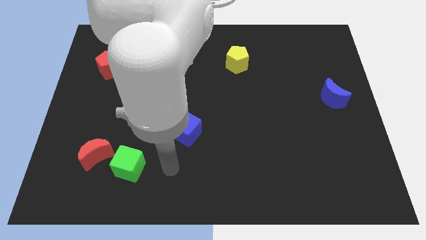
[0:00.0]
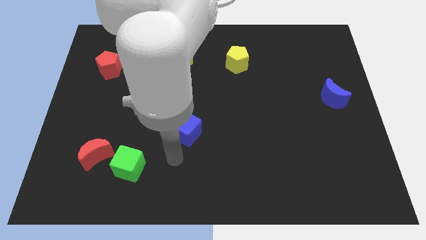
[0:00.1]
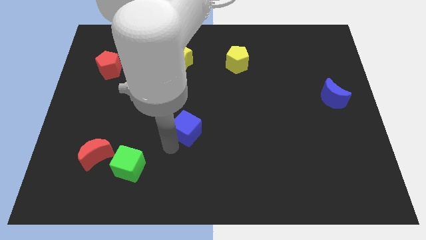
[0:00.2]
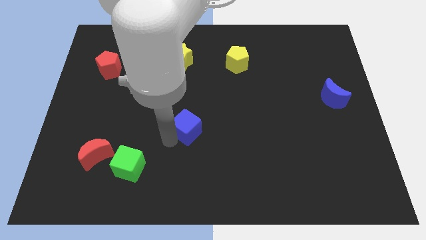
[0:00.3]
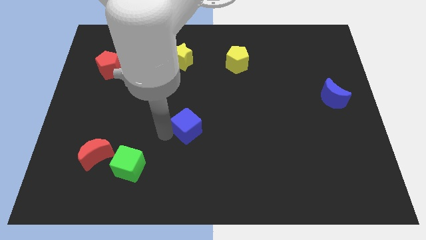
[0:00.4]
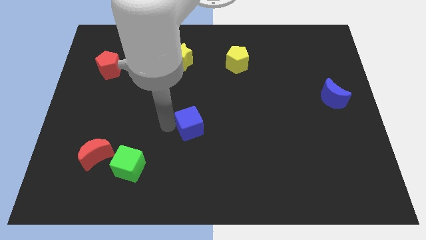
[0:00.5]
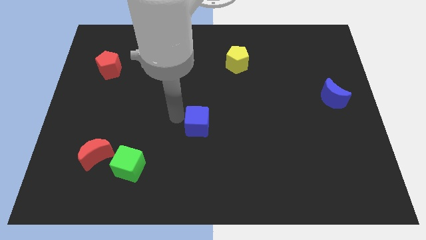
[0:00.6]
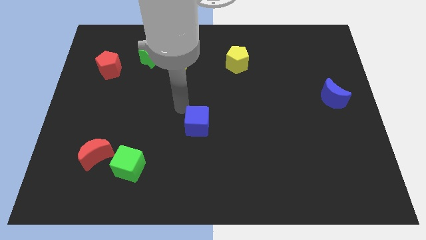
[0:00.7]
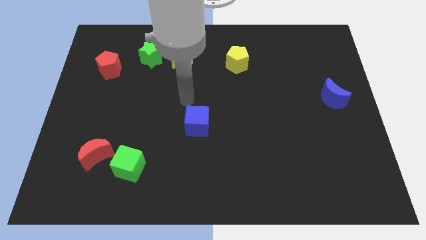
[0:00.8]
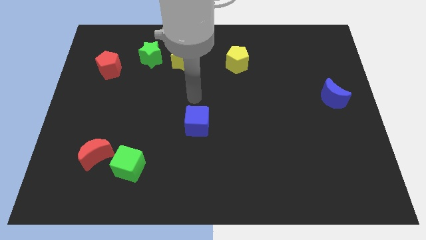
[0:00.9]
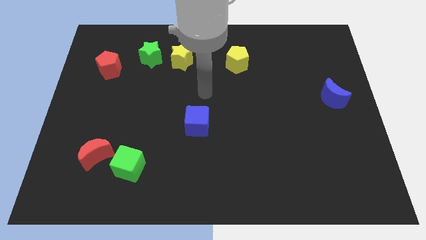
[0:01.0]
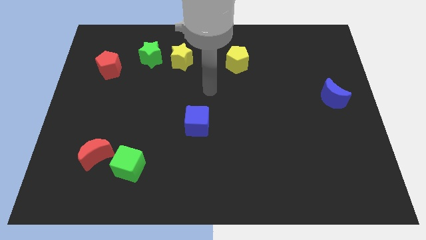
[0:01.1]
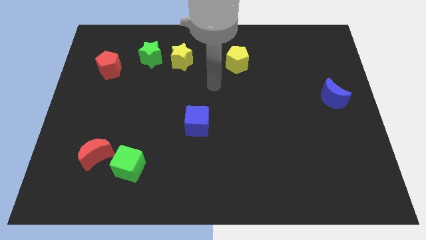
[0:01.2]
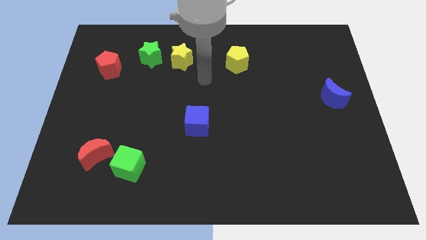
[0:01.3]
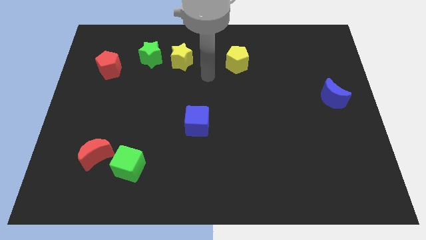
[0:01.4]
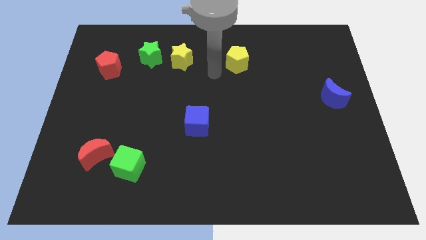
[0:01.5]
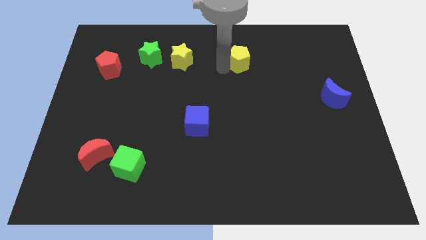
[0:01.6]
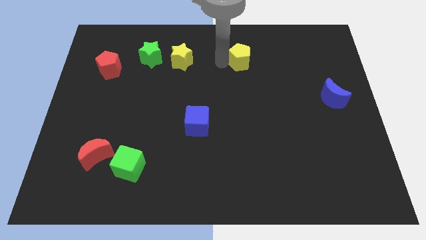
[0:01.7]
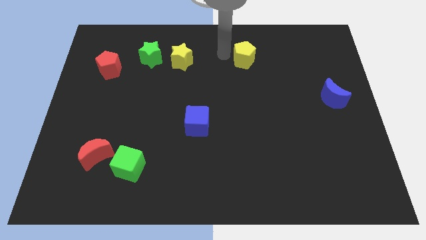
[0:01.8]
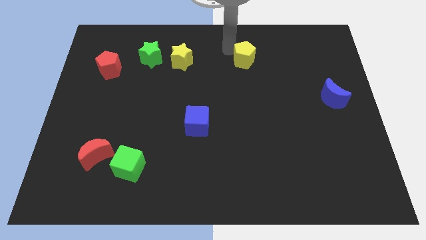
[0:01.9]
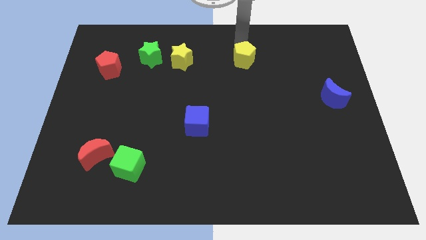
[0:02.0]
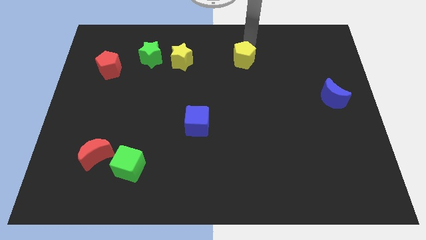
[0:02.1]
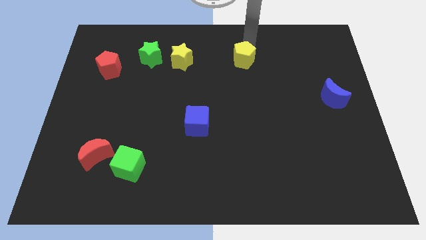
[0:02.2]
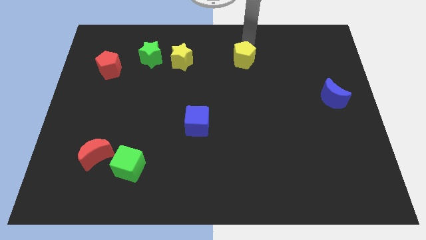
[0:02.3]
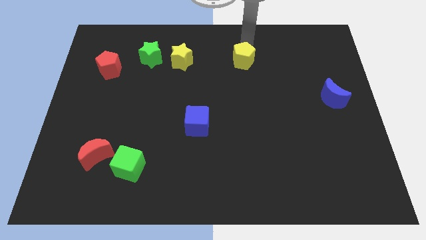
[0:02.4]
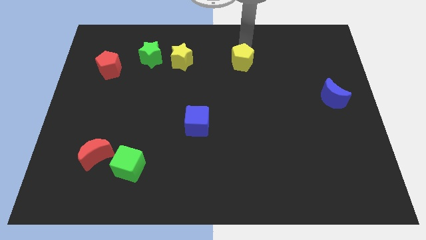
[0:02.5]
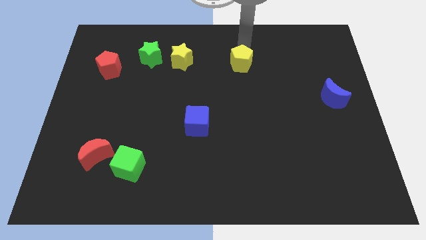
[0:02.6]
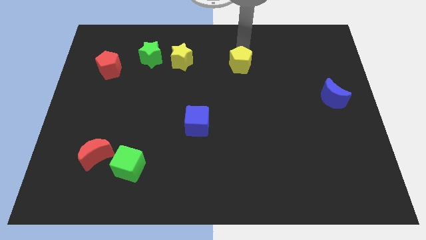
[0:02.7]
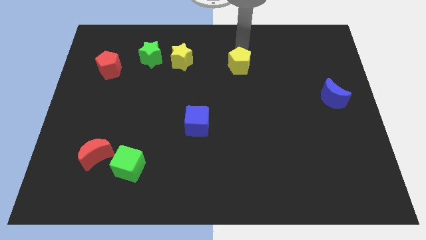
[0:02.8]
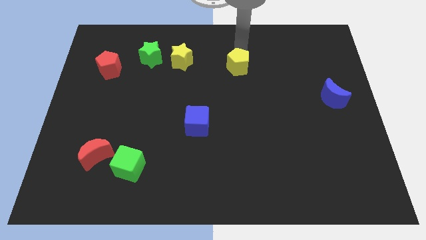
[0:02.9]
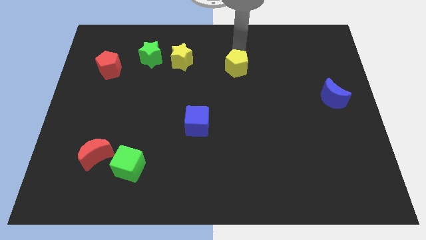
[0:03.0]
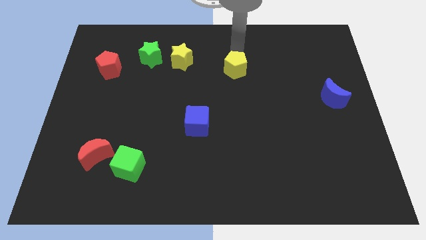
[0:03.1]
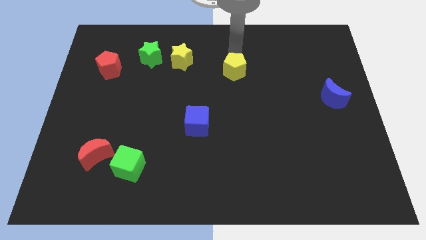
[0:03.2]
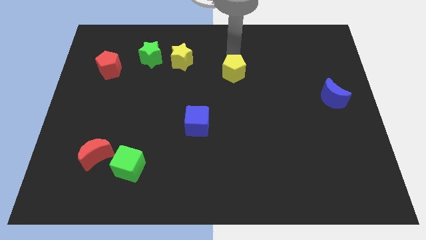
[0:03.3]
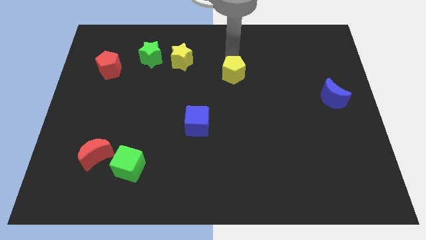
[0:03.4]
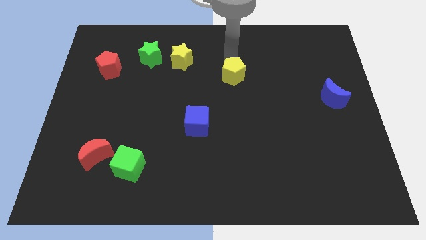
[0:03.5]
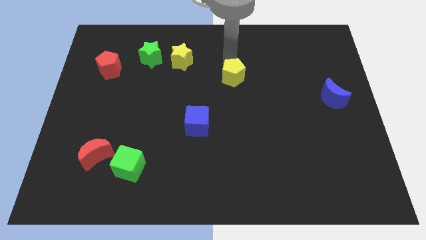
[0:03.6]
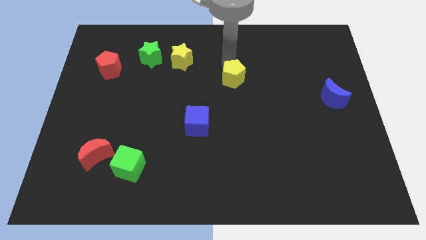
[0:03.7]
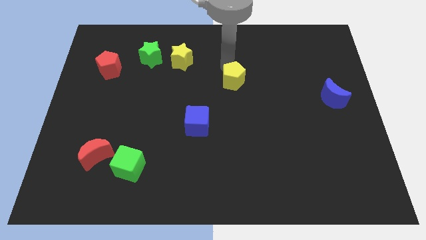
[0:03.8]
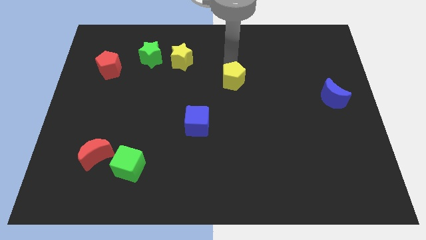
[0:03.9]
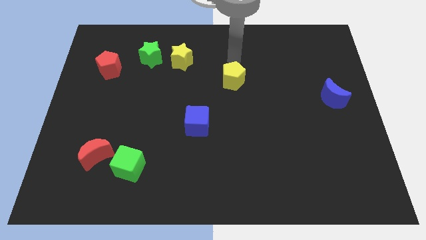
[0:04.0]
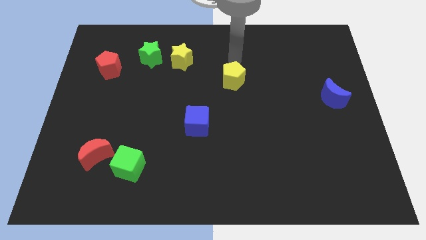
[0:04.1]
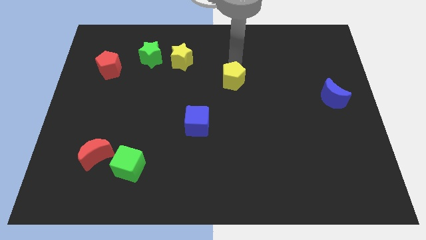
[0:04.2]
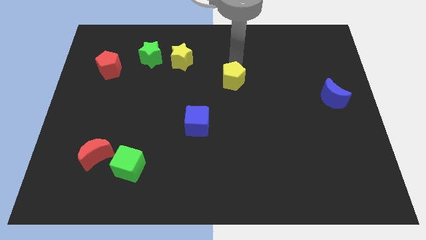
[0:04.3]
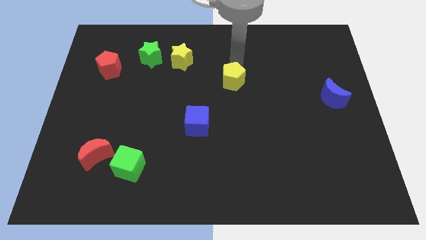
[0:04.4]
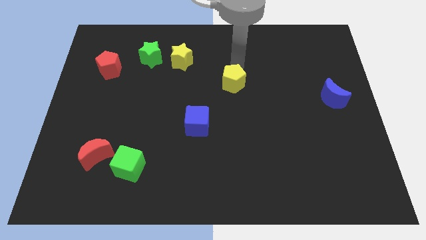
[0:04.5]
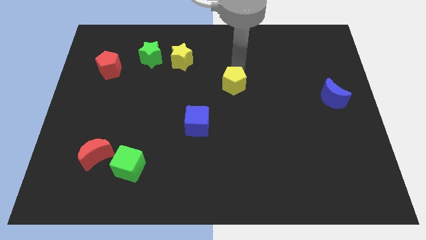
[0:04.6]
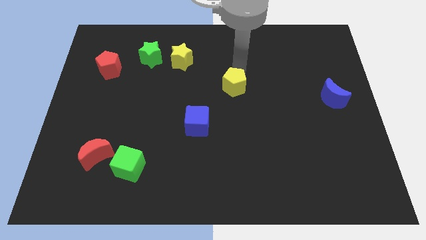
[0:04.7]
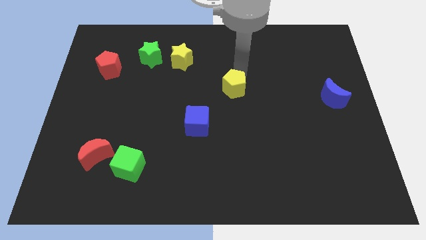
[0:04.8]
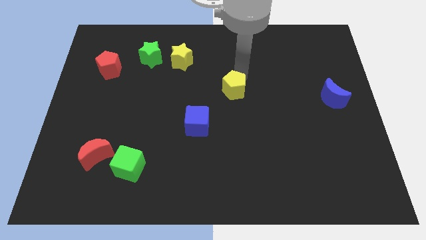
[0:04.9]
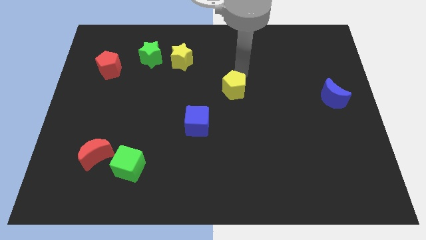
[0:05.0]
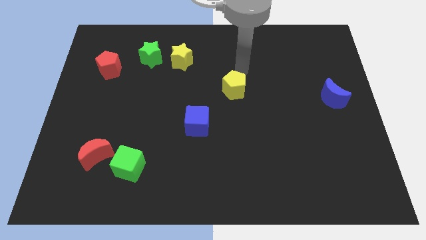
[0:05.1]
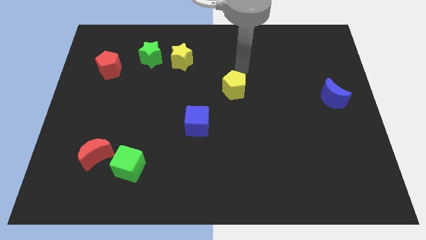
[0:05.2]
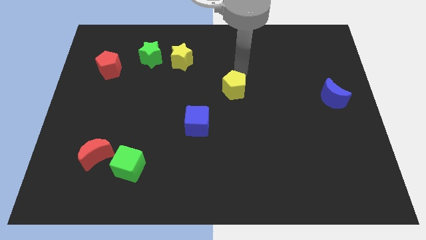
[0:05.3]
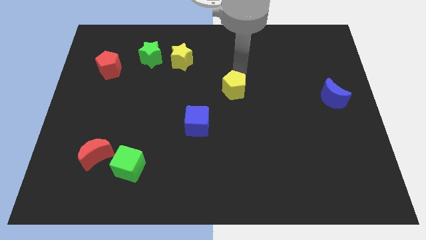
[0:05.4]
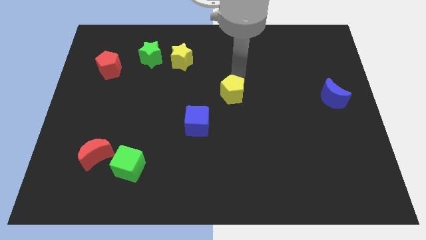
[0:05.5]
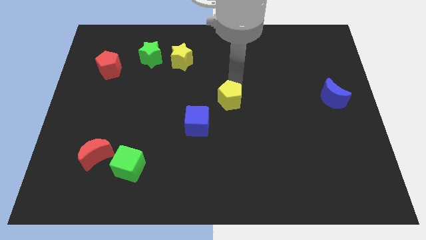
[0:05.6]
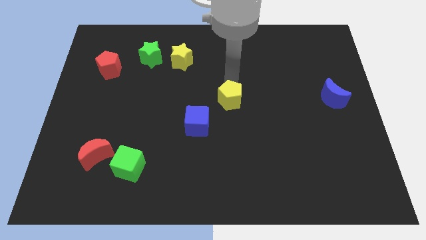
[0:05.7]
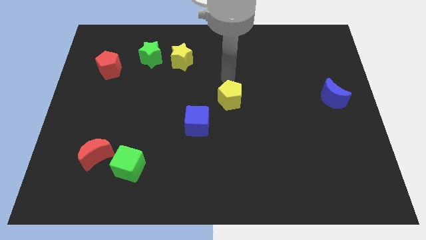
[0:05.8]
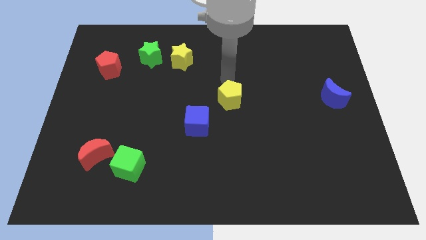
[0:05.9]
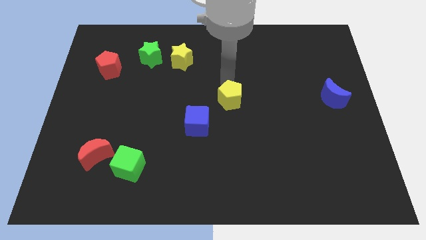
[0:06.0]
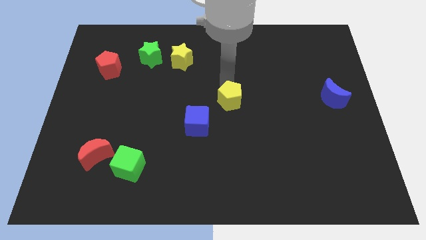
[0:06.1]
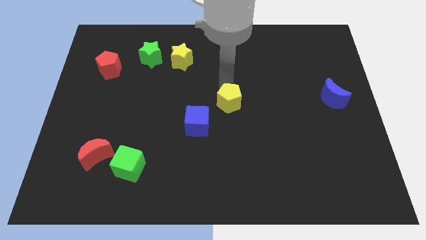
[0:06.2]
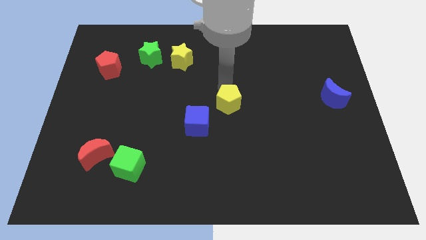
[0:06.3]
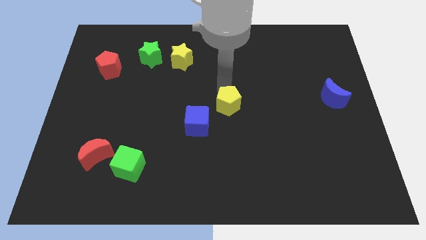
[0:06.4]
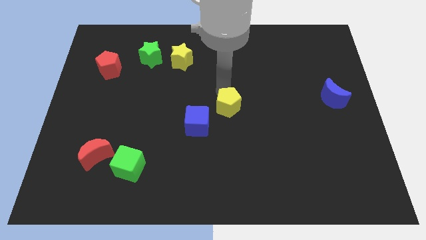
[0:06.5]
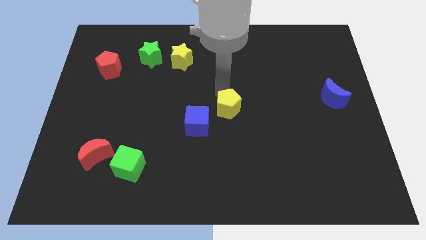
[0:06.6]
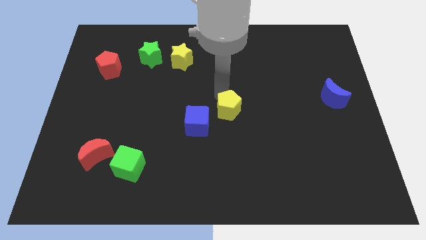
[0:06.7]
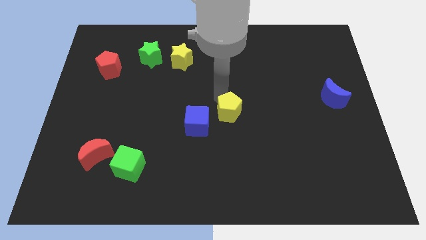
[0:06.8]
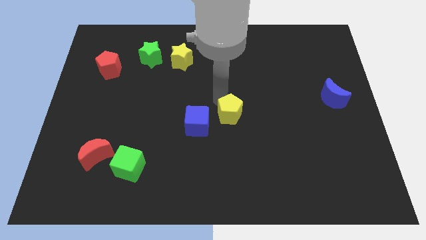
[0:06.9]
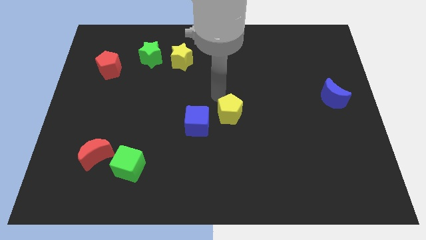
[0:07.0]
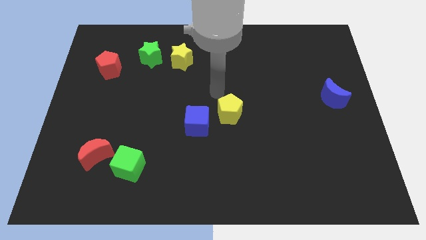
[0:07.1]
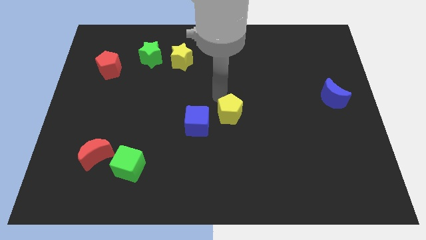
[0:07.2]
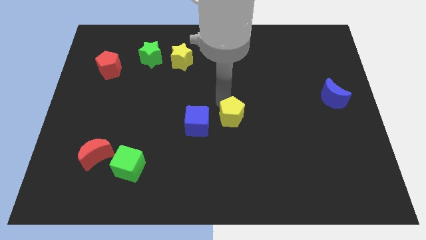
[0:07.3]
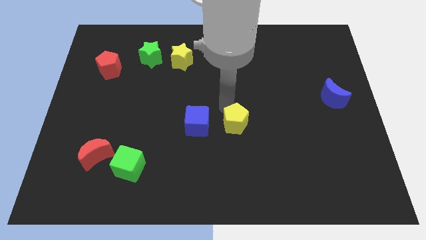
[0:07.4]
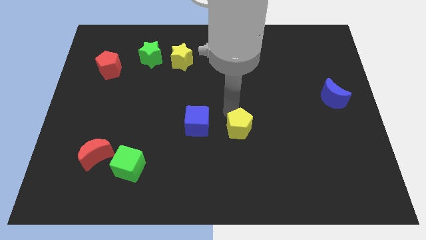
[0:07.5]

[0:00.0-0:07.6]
move the yellow pentagon downwards

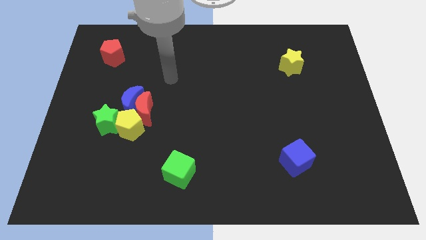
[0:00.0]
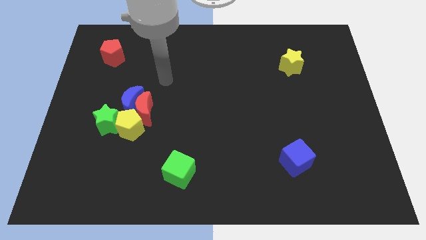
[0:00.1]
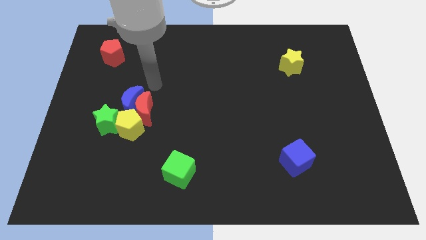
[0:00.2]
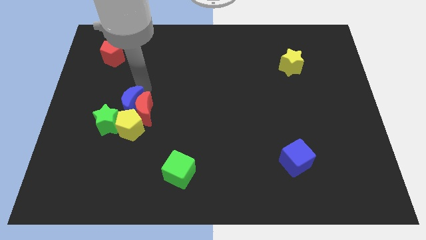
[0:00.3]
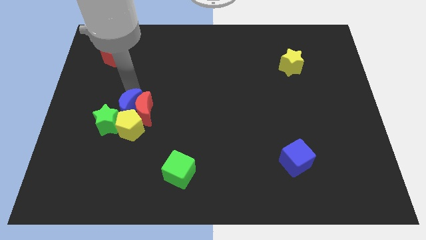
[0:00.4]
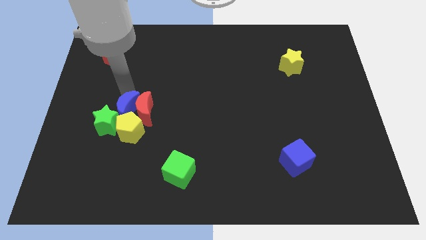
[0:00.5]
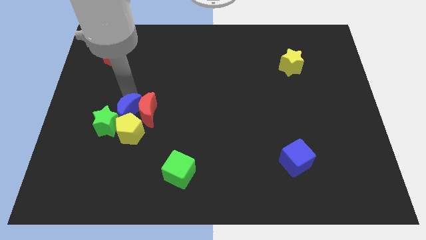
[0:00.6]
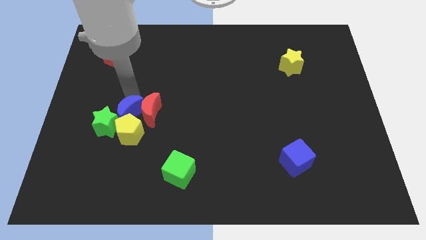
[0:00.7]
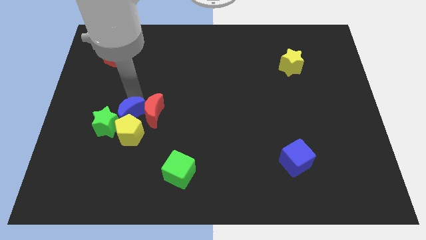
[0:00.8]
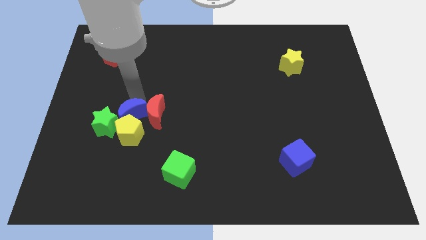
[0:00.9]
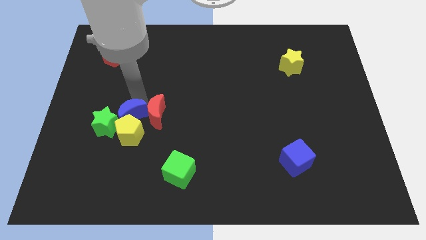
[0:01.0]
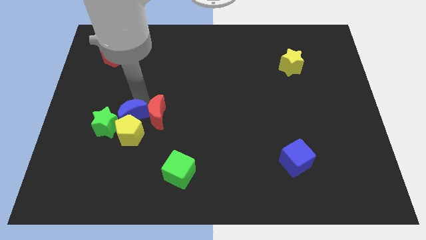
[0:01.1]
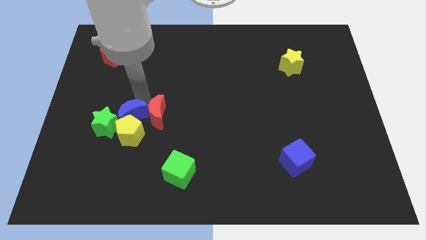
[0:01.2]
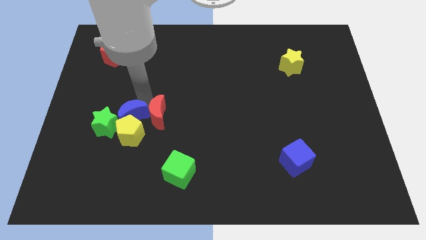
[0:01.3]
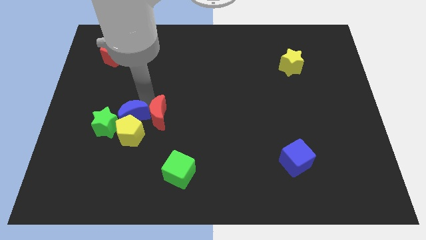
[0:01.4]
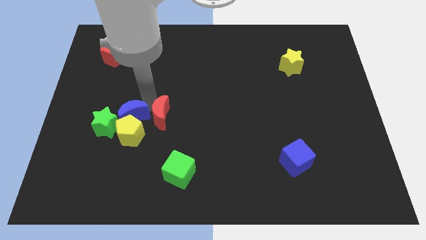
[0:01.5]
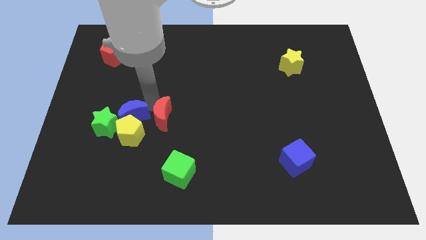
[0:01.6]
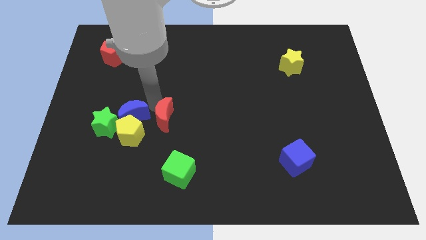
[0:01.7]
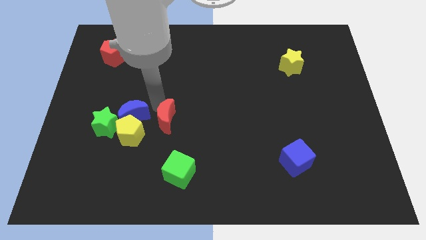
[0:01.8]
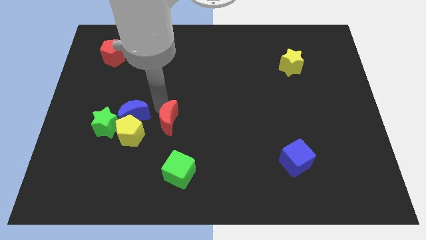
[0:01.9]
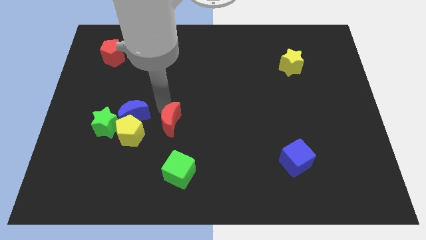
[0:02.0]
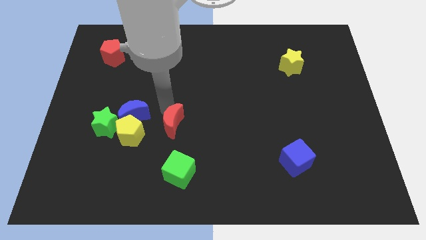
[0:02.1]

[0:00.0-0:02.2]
push the red moon slightly downwards and to the right
